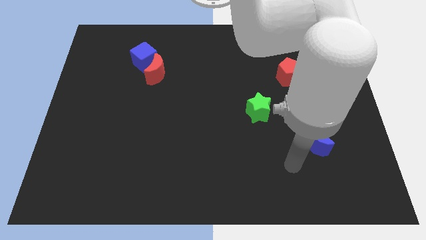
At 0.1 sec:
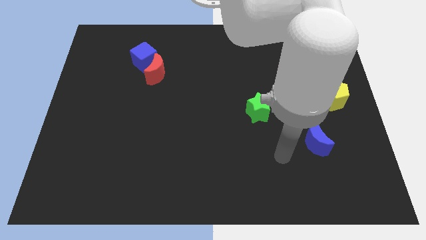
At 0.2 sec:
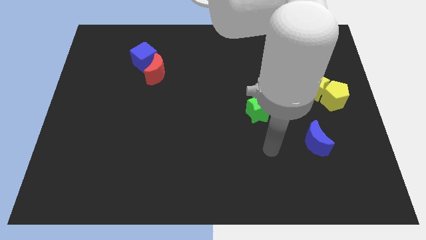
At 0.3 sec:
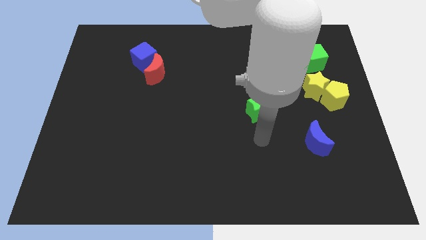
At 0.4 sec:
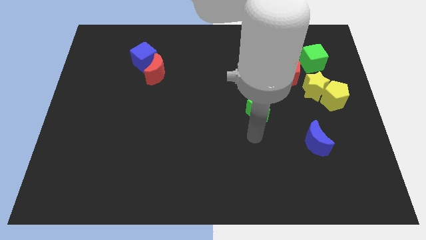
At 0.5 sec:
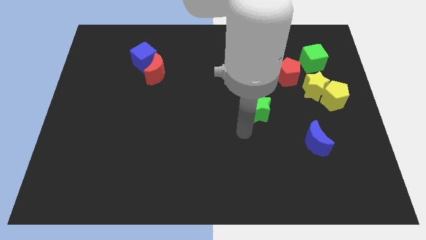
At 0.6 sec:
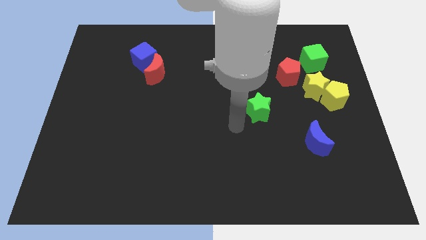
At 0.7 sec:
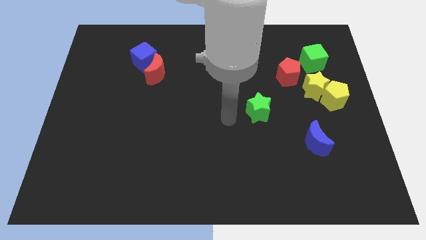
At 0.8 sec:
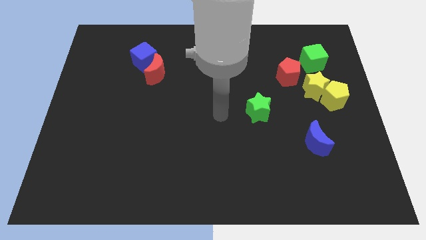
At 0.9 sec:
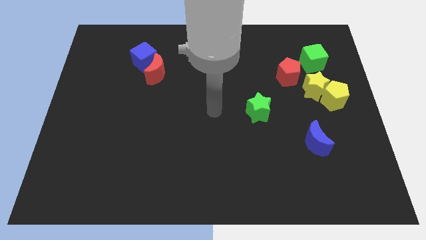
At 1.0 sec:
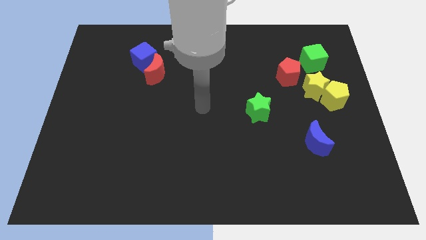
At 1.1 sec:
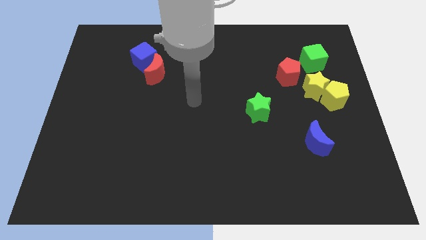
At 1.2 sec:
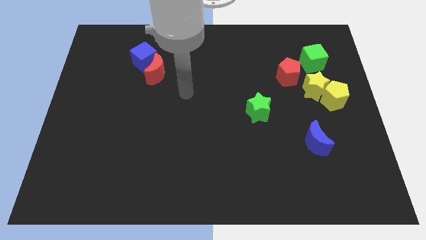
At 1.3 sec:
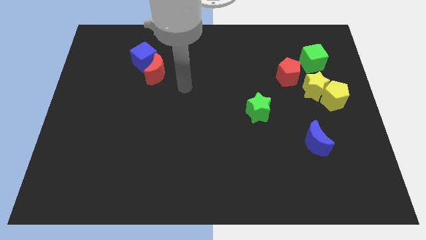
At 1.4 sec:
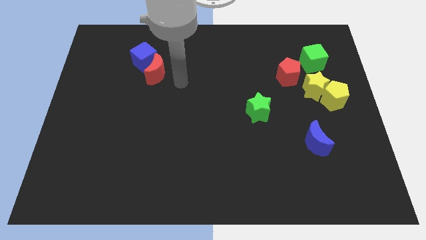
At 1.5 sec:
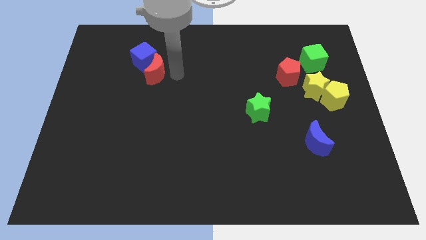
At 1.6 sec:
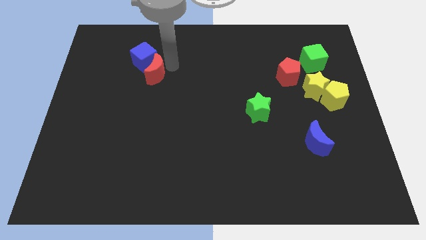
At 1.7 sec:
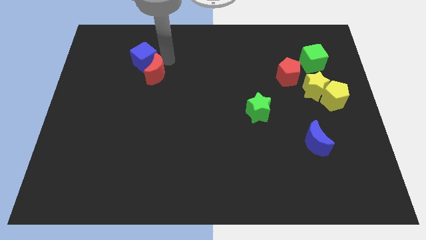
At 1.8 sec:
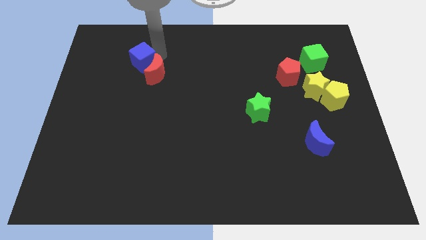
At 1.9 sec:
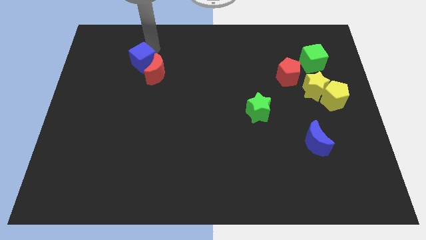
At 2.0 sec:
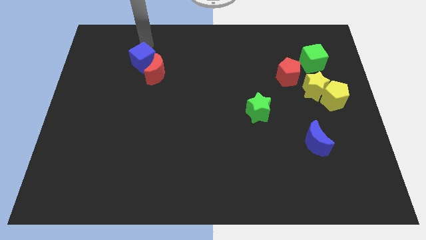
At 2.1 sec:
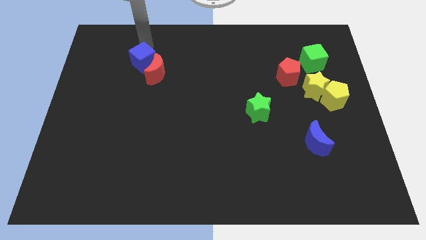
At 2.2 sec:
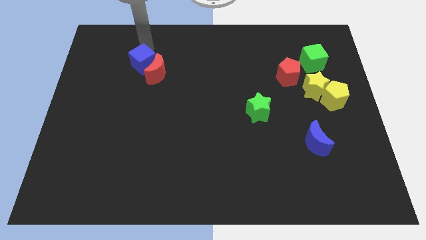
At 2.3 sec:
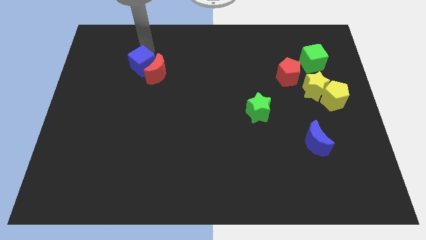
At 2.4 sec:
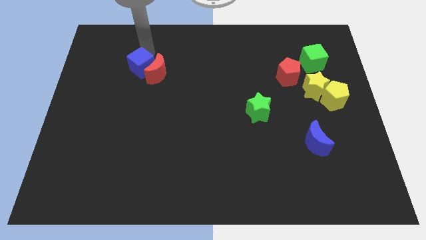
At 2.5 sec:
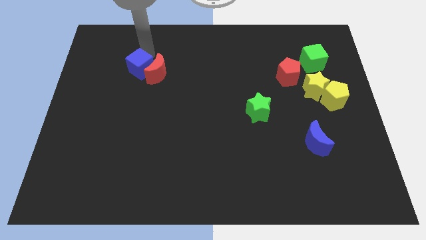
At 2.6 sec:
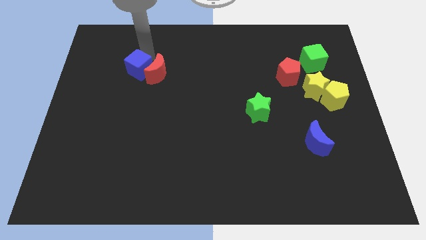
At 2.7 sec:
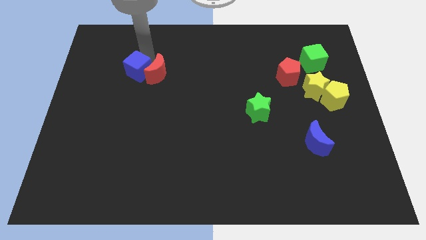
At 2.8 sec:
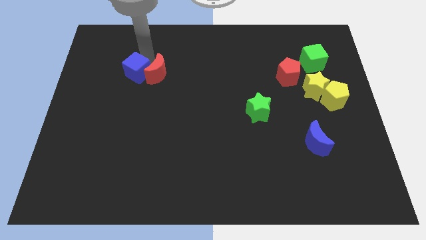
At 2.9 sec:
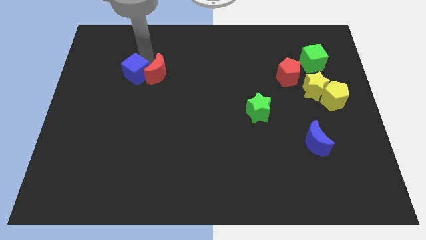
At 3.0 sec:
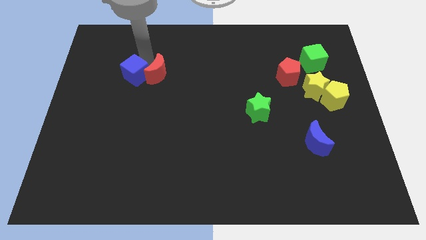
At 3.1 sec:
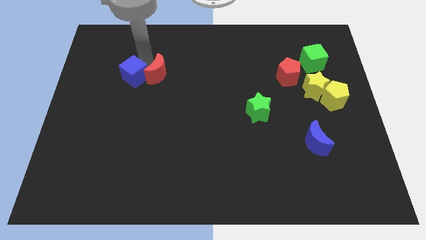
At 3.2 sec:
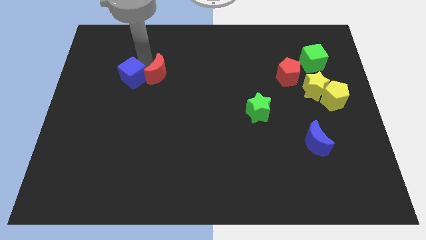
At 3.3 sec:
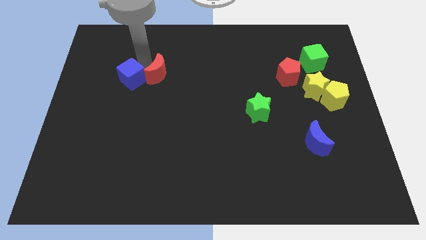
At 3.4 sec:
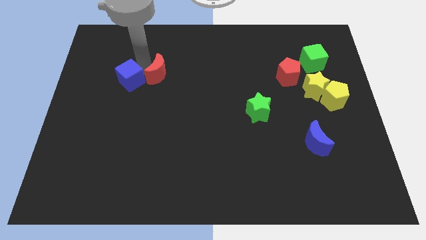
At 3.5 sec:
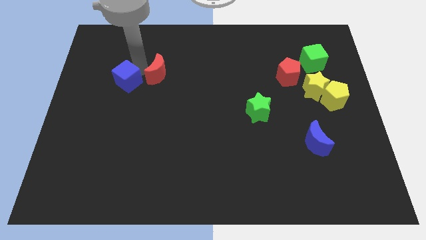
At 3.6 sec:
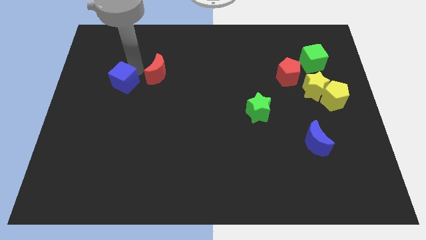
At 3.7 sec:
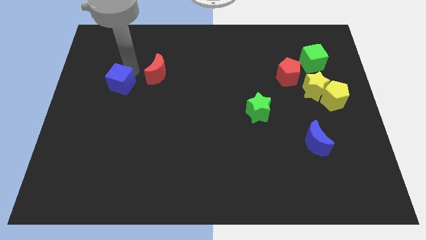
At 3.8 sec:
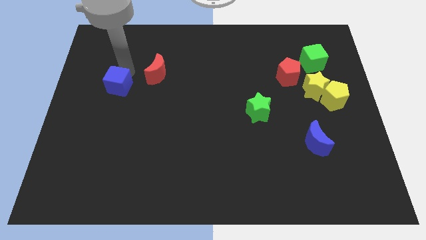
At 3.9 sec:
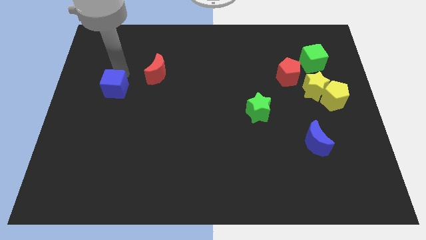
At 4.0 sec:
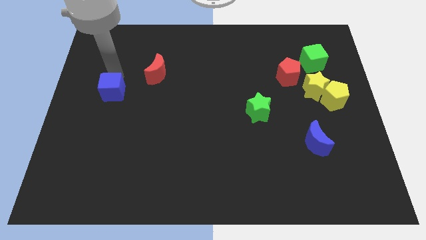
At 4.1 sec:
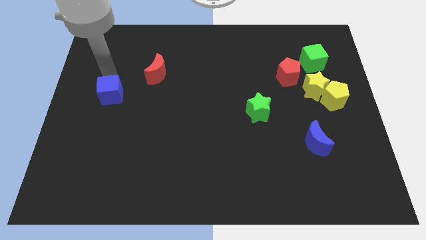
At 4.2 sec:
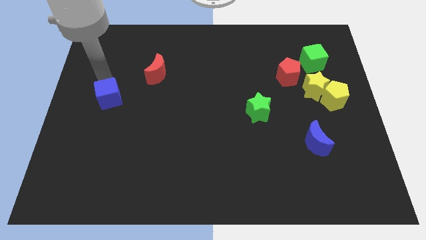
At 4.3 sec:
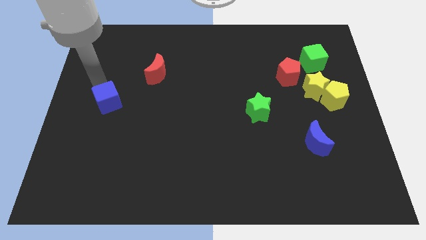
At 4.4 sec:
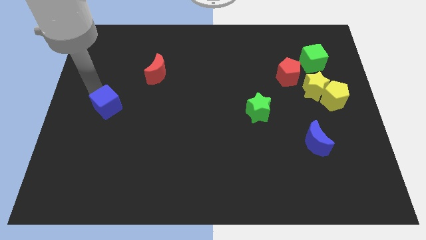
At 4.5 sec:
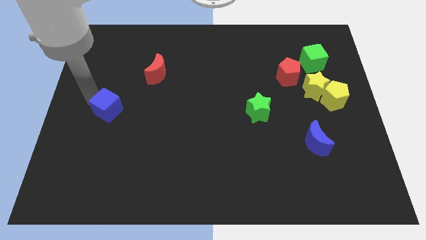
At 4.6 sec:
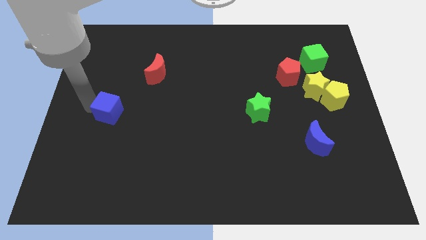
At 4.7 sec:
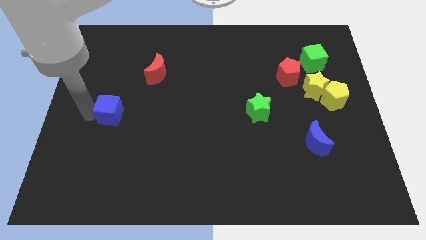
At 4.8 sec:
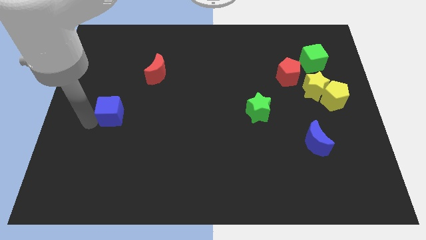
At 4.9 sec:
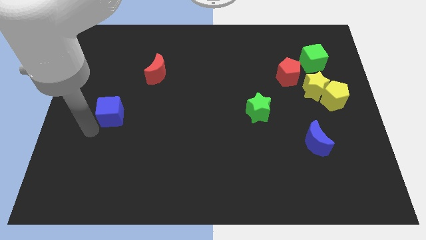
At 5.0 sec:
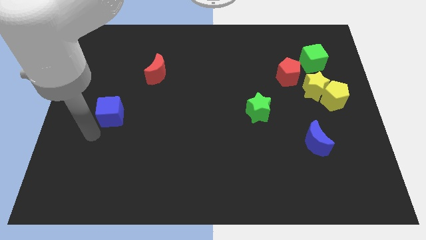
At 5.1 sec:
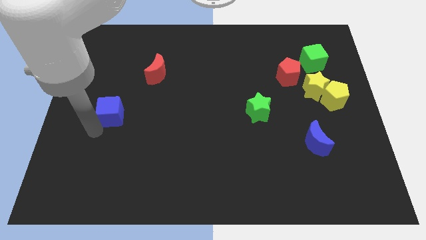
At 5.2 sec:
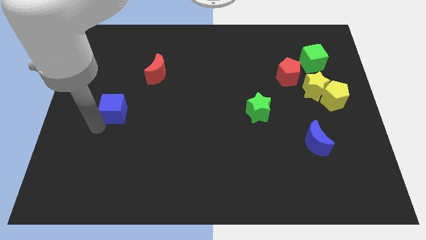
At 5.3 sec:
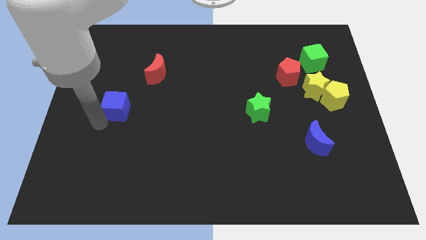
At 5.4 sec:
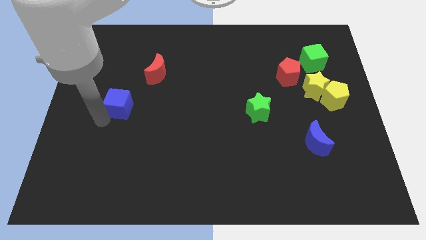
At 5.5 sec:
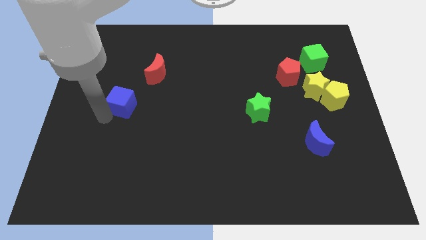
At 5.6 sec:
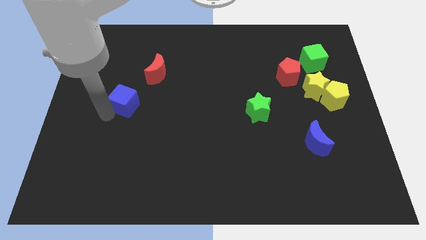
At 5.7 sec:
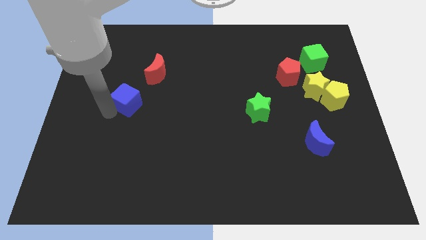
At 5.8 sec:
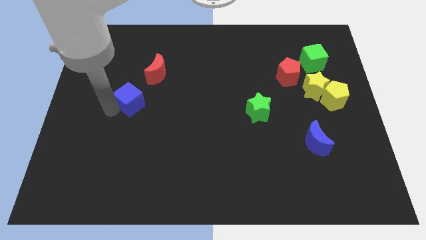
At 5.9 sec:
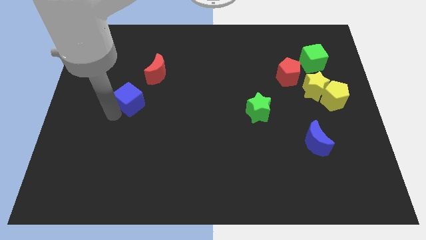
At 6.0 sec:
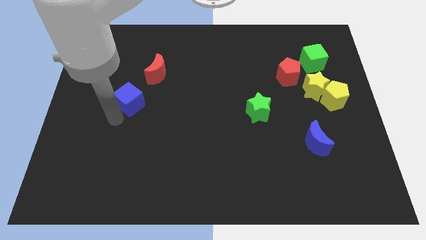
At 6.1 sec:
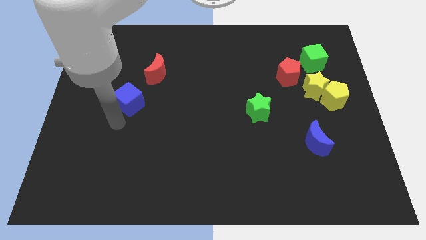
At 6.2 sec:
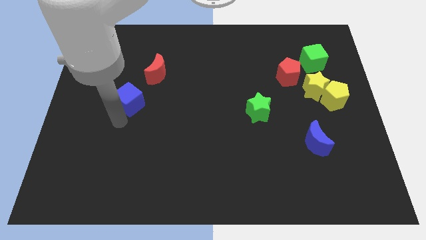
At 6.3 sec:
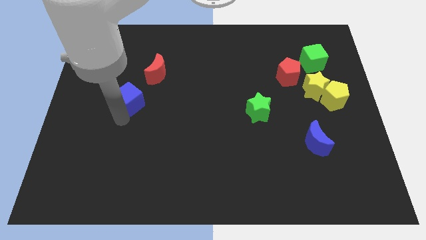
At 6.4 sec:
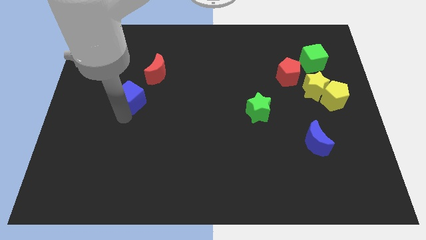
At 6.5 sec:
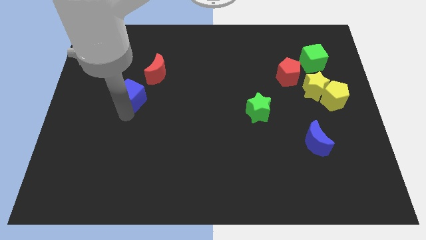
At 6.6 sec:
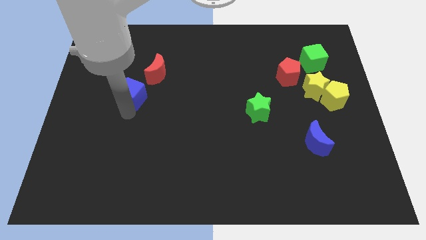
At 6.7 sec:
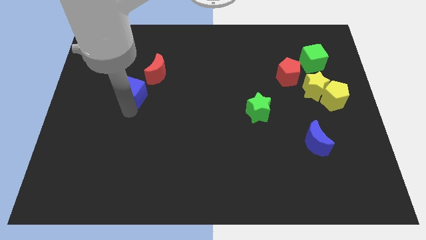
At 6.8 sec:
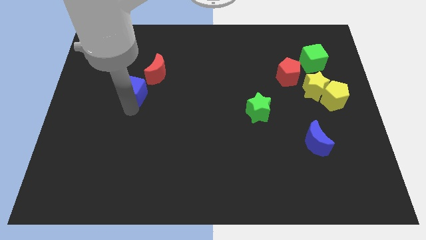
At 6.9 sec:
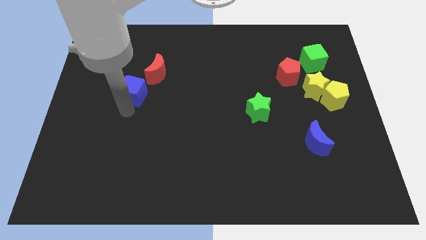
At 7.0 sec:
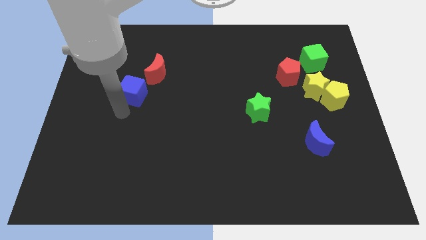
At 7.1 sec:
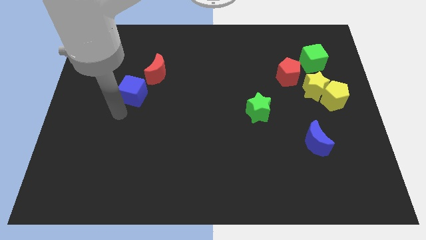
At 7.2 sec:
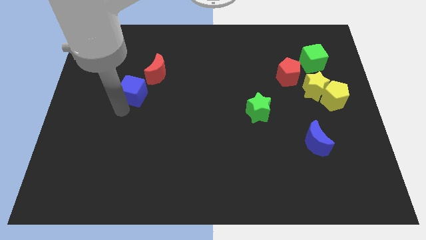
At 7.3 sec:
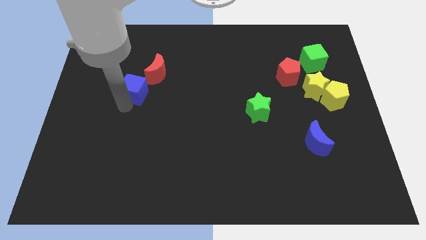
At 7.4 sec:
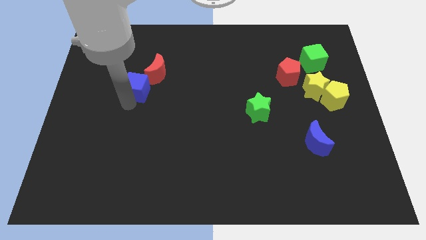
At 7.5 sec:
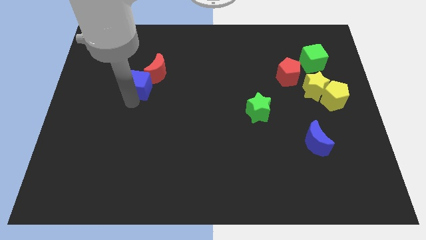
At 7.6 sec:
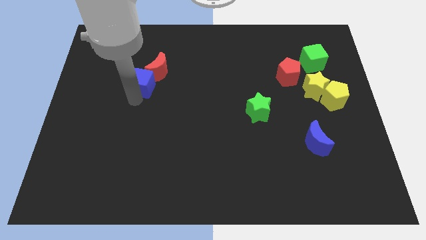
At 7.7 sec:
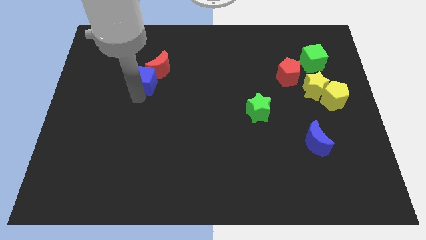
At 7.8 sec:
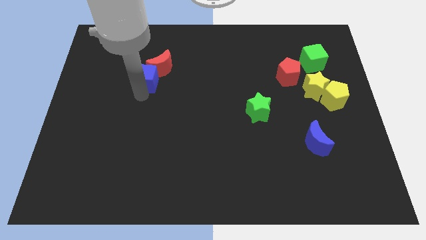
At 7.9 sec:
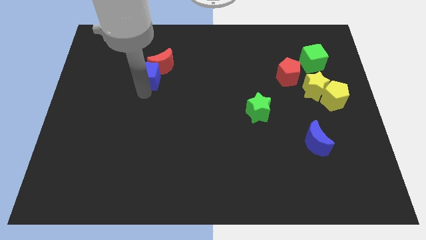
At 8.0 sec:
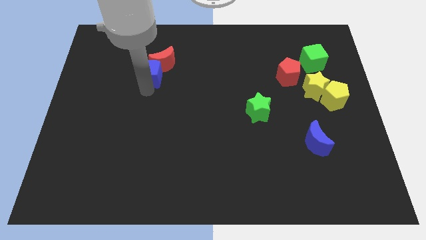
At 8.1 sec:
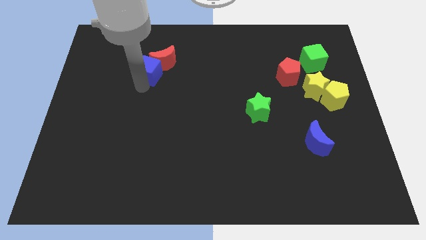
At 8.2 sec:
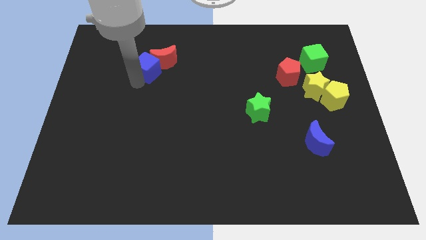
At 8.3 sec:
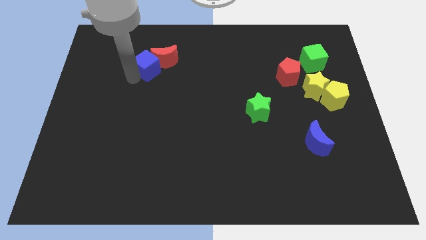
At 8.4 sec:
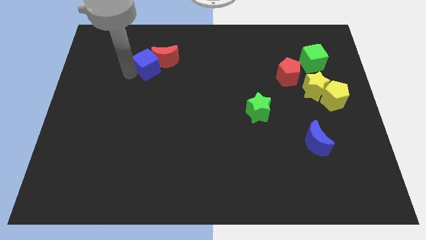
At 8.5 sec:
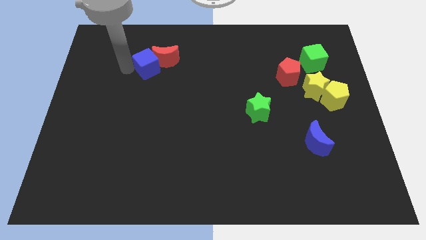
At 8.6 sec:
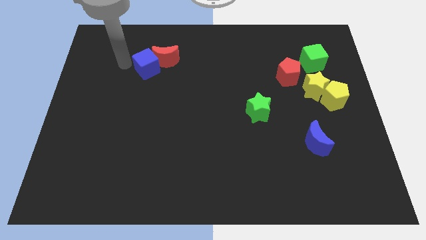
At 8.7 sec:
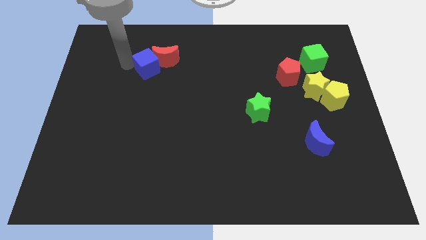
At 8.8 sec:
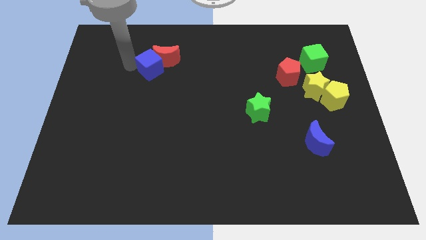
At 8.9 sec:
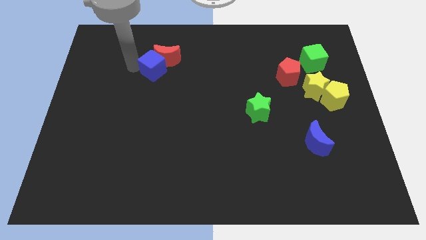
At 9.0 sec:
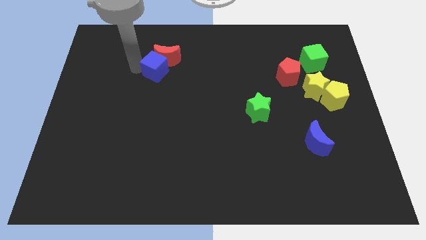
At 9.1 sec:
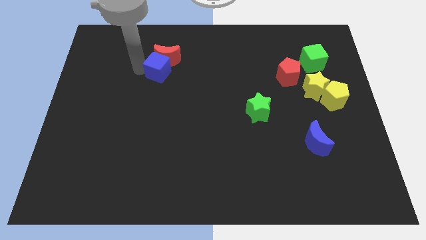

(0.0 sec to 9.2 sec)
put the blue cube to the bottom right of the red moon
